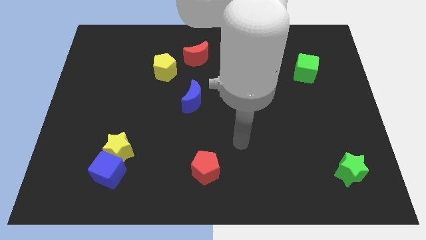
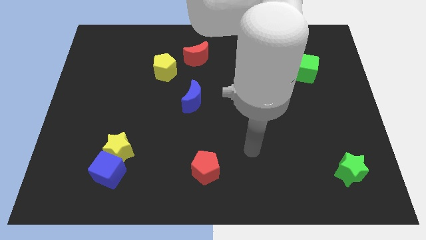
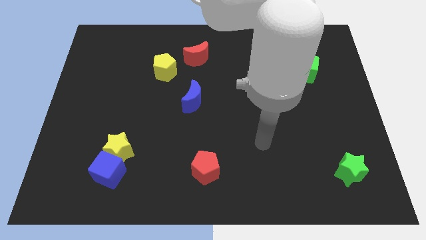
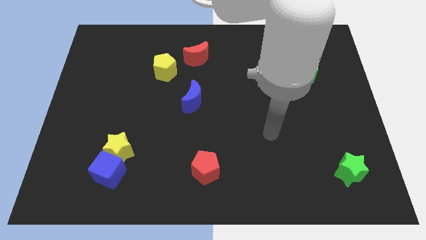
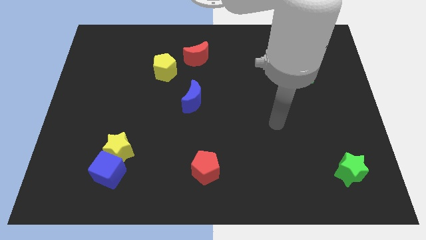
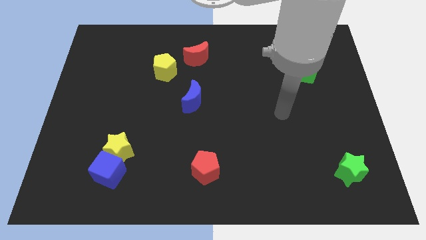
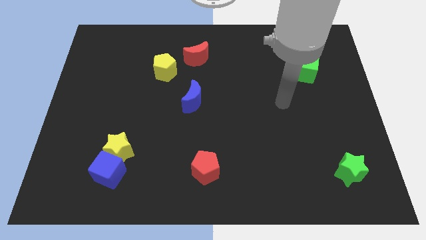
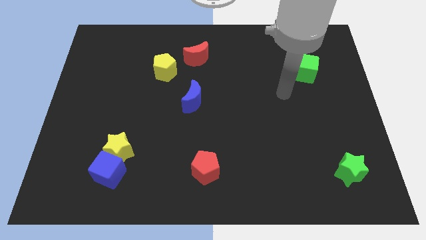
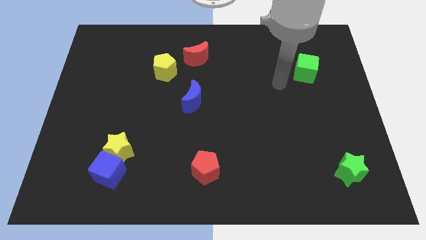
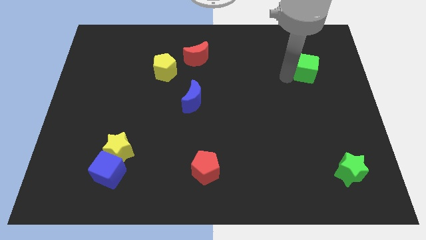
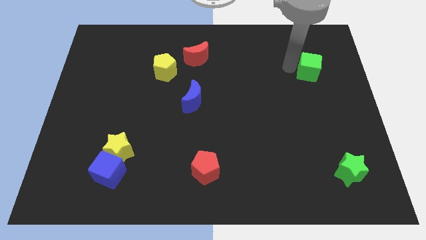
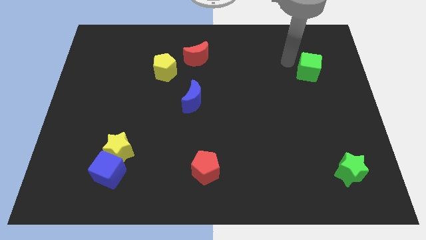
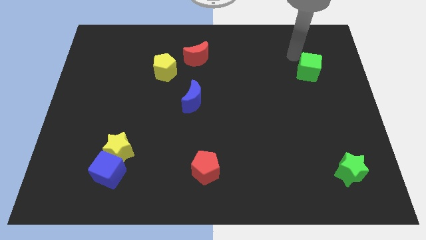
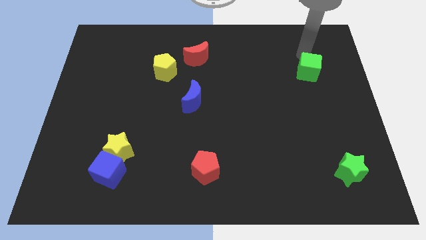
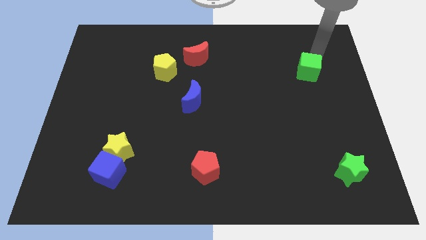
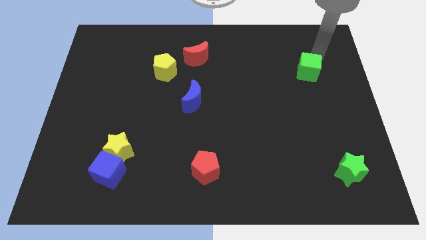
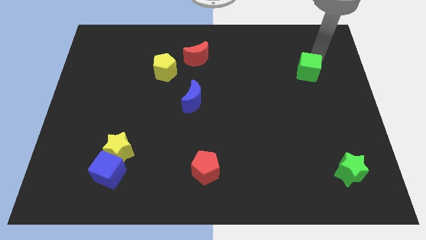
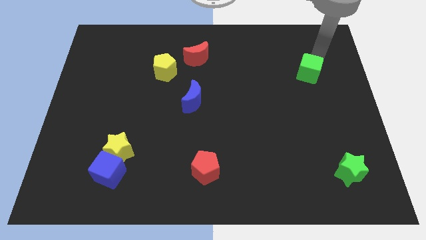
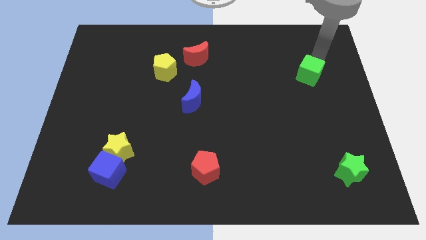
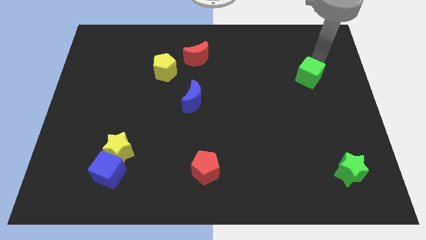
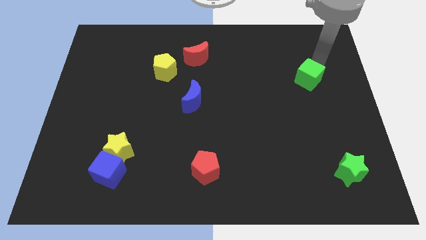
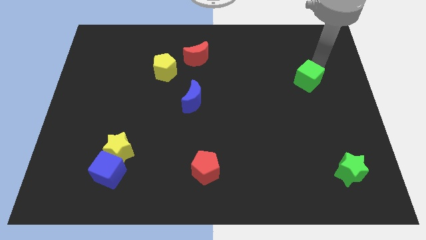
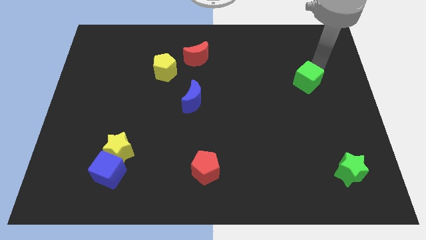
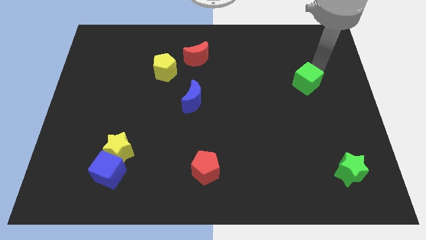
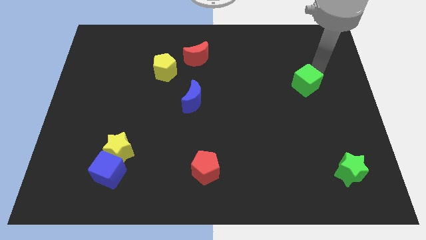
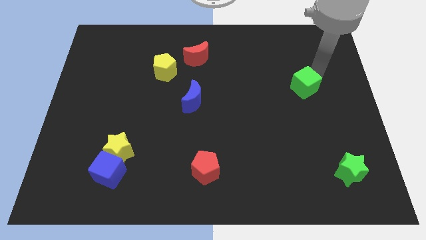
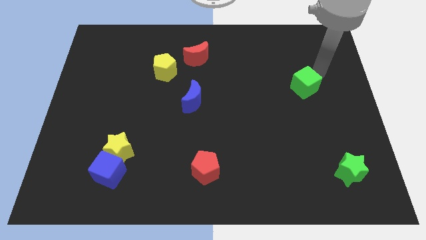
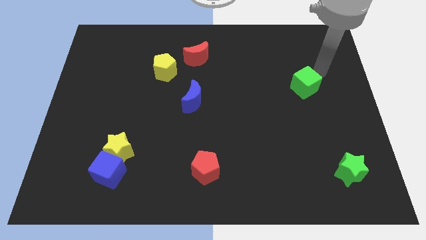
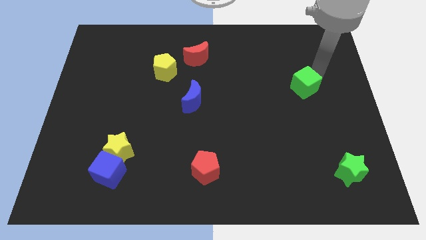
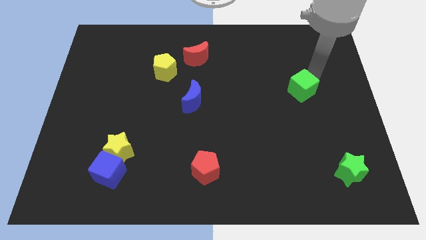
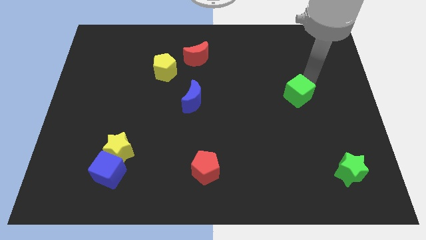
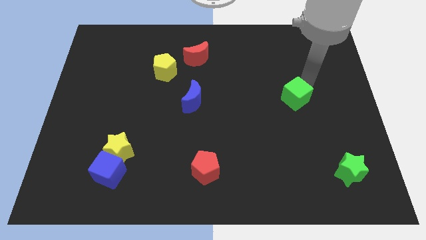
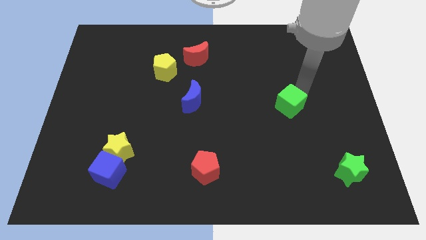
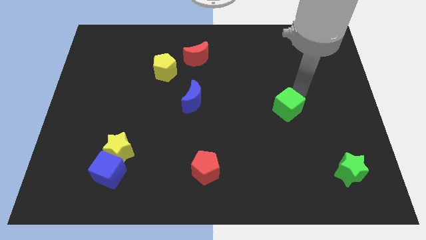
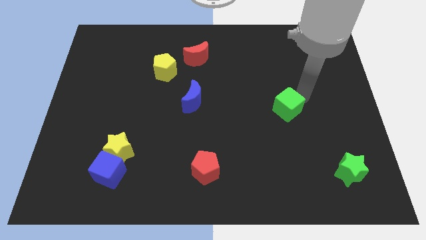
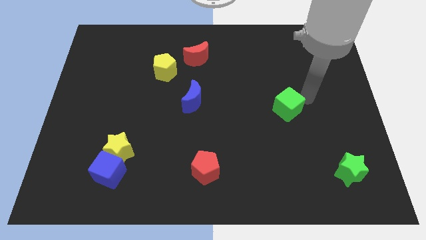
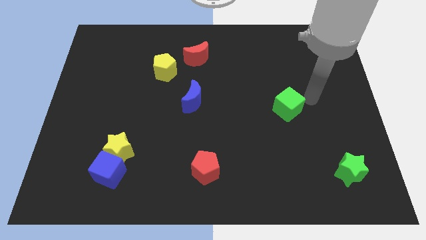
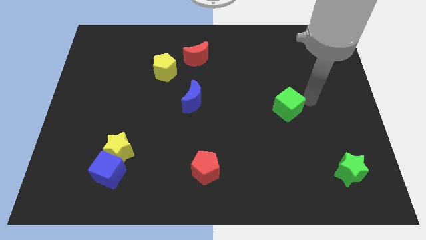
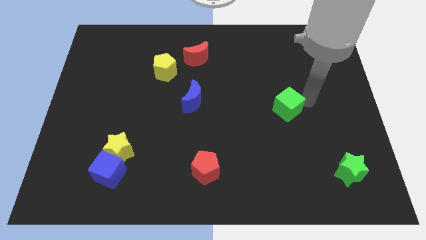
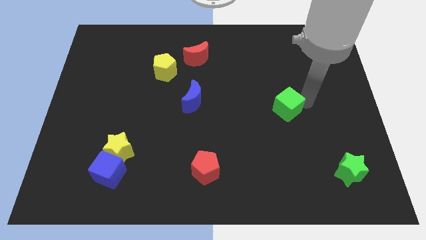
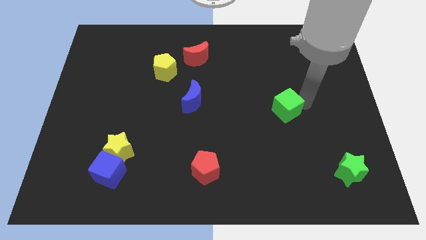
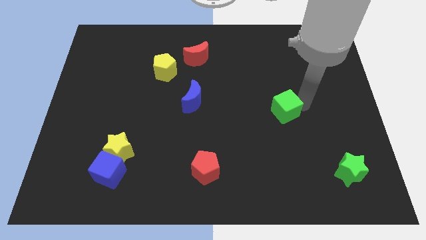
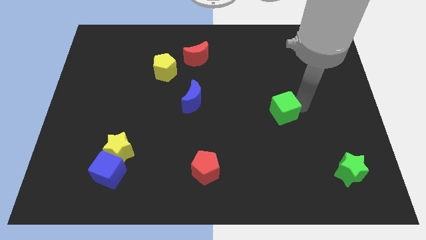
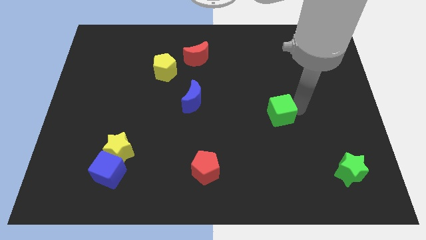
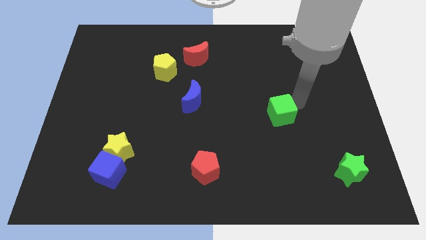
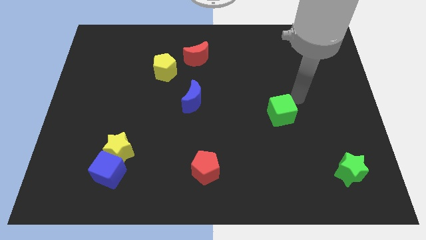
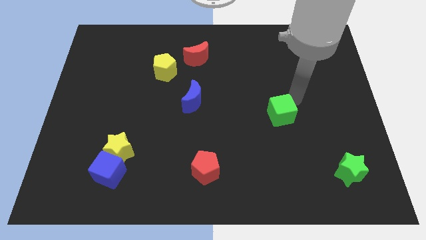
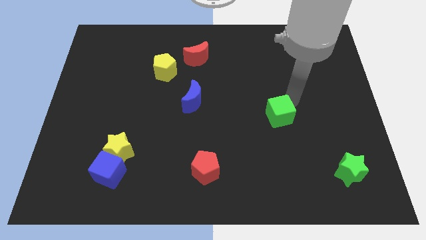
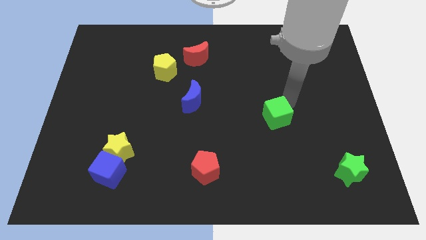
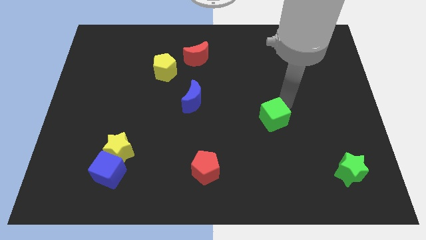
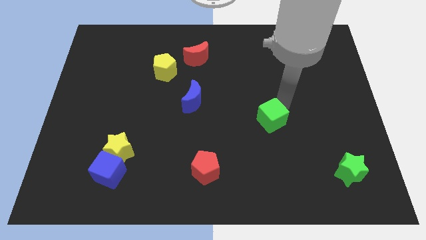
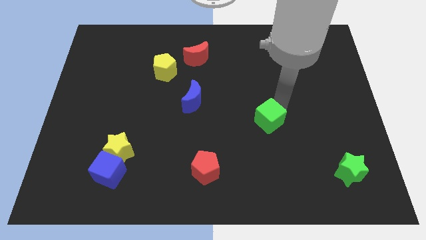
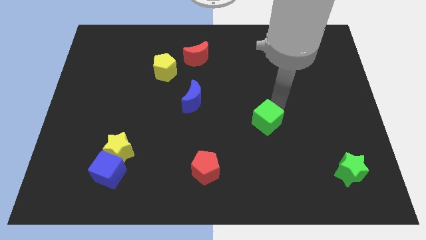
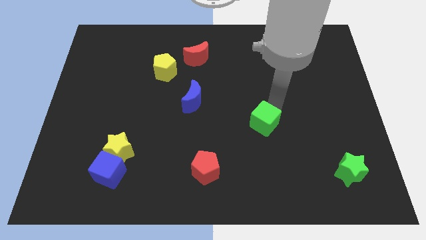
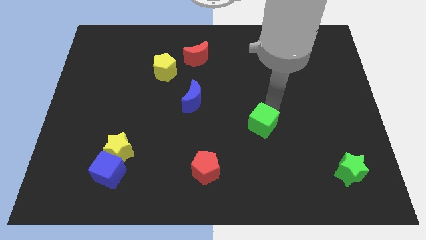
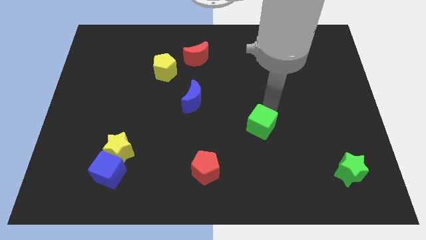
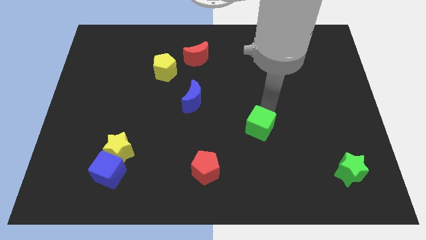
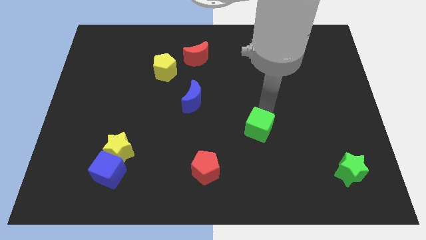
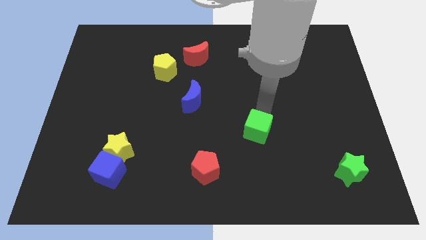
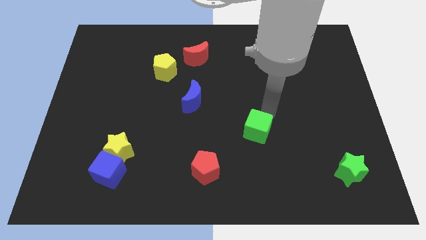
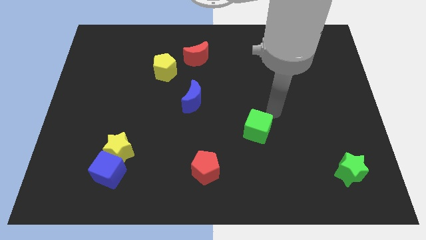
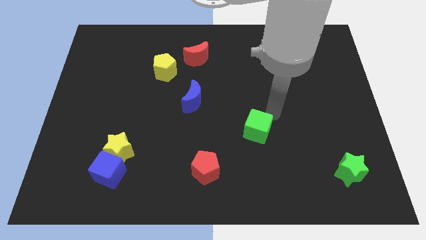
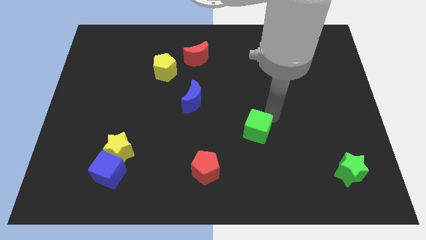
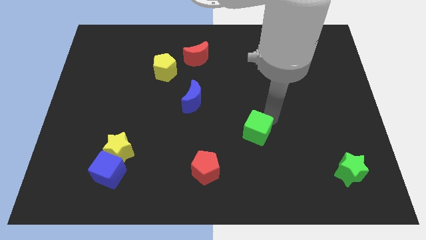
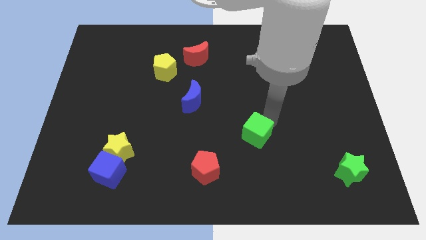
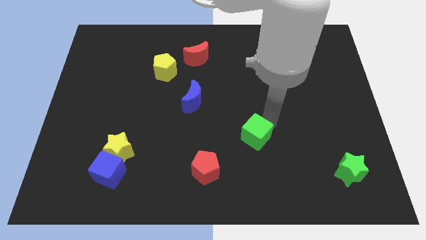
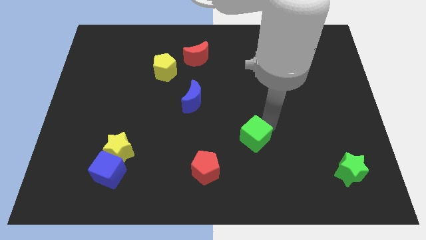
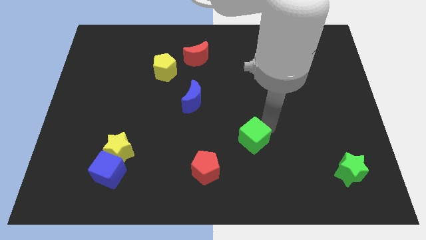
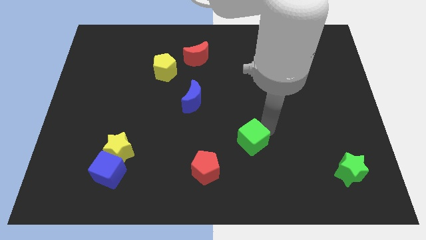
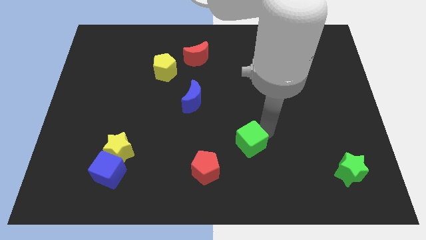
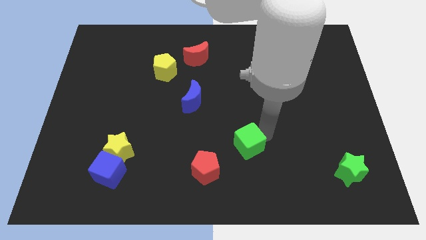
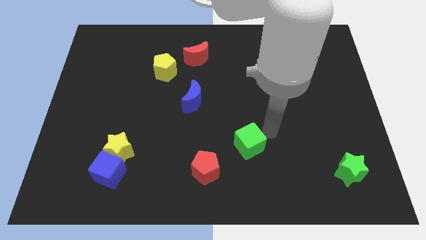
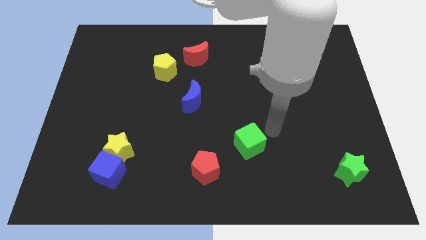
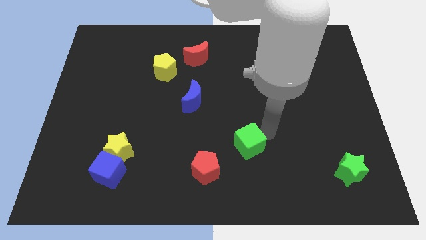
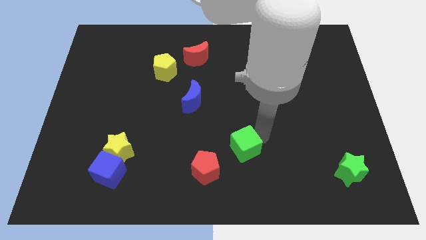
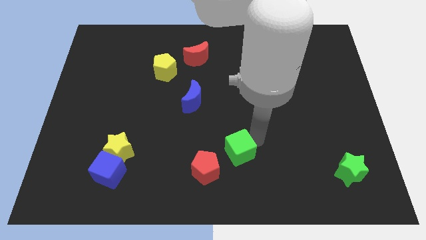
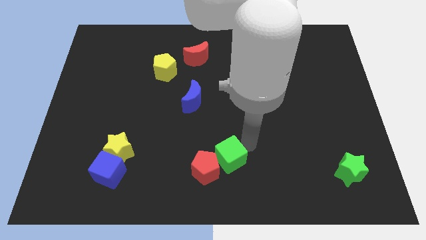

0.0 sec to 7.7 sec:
slide the green cube to the red pentagon
